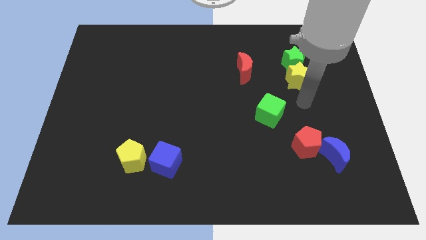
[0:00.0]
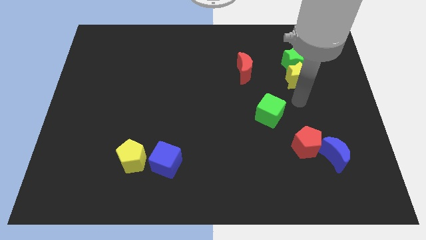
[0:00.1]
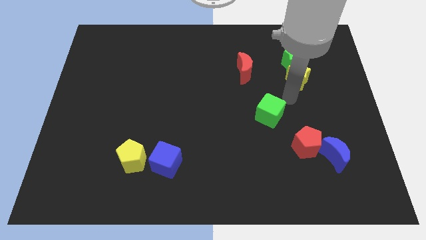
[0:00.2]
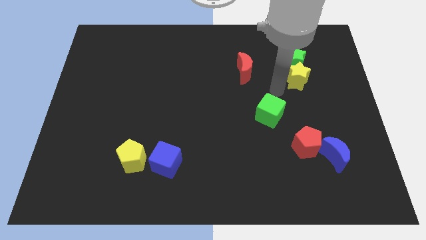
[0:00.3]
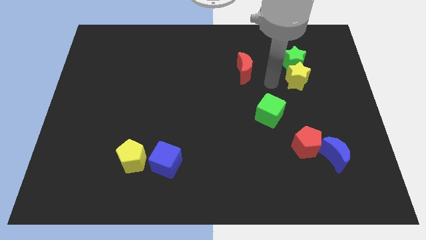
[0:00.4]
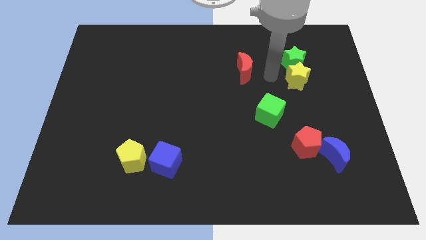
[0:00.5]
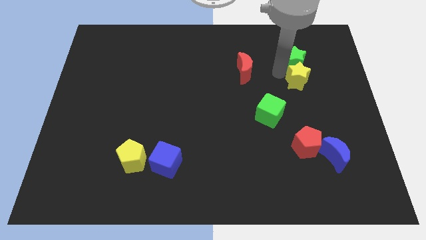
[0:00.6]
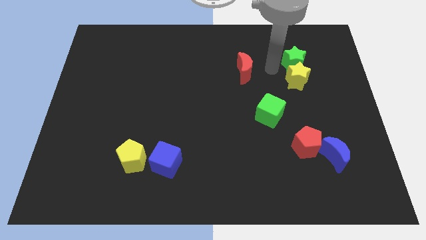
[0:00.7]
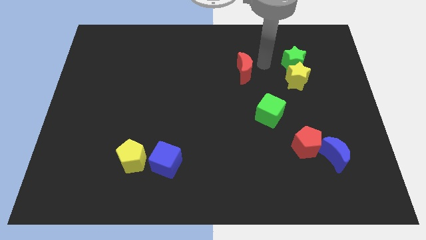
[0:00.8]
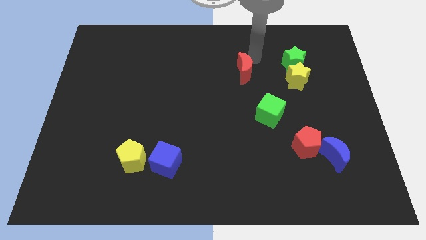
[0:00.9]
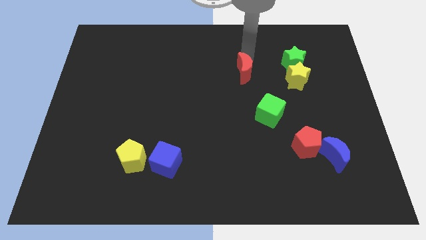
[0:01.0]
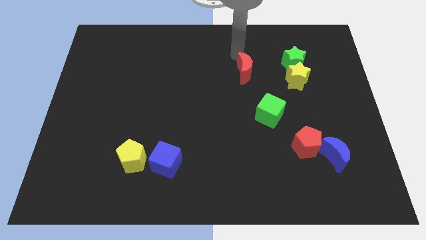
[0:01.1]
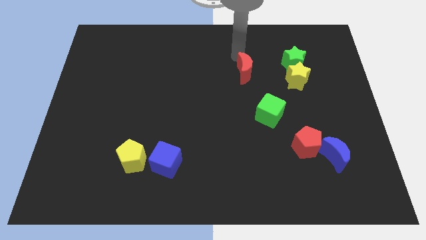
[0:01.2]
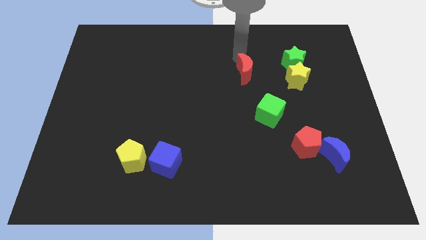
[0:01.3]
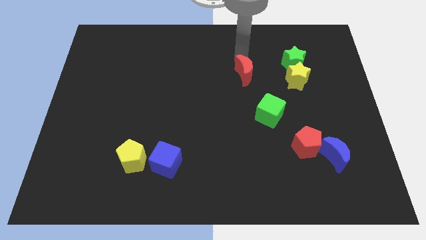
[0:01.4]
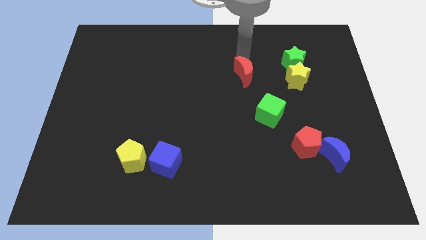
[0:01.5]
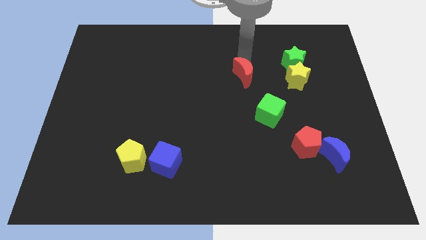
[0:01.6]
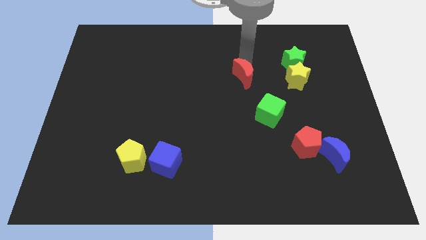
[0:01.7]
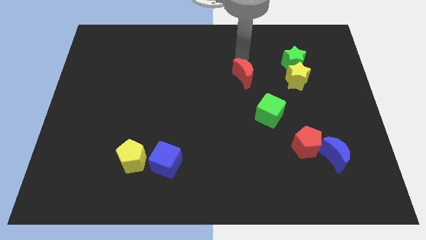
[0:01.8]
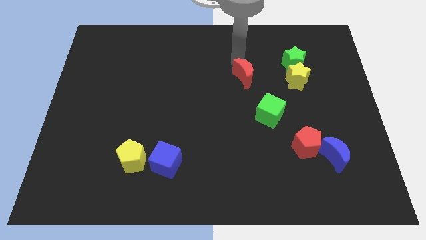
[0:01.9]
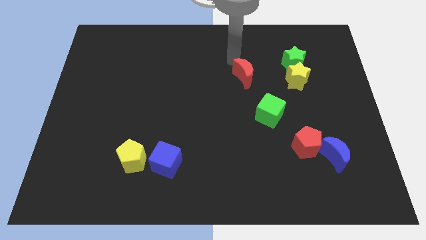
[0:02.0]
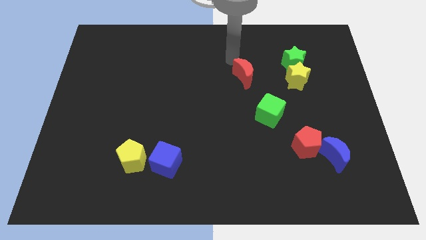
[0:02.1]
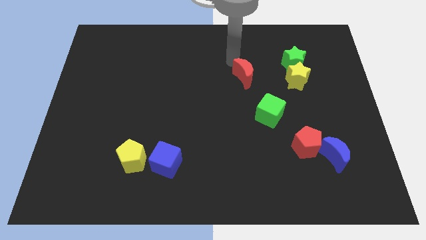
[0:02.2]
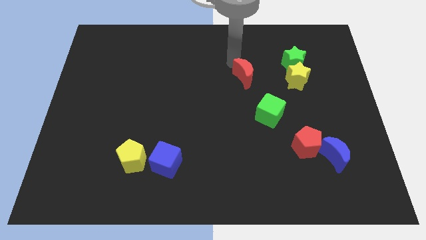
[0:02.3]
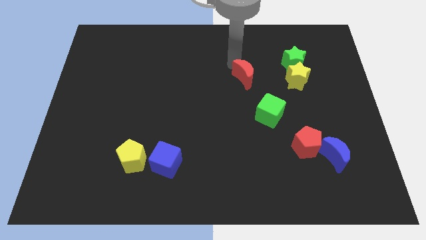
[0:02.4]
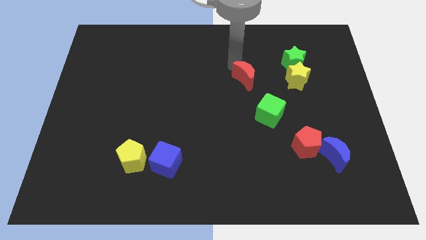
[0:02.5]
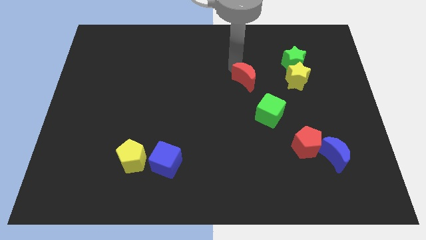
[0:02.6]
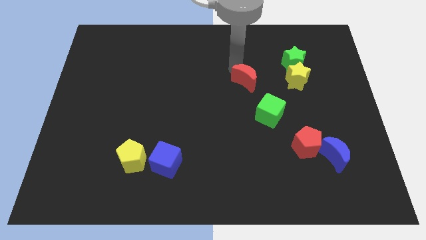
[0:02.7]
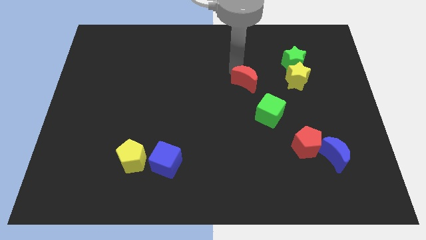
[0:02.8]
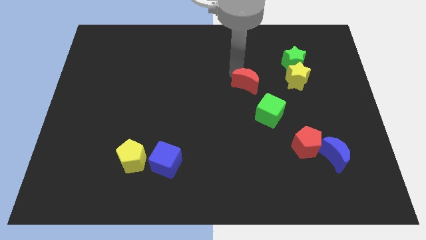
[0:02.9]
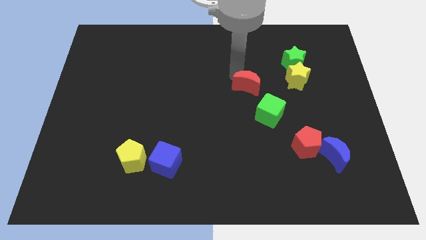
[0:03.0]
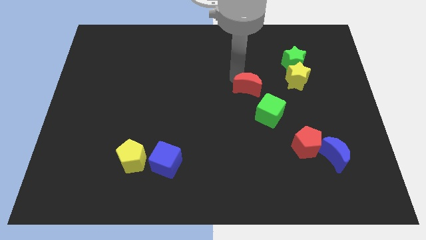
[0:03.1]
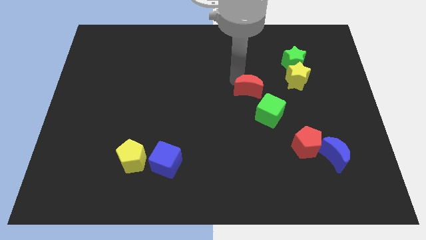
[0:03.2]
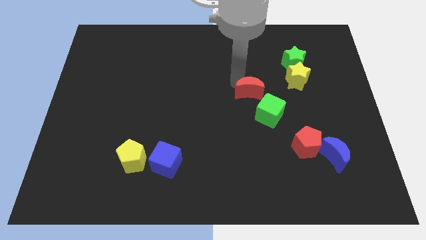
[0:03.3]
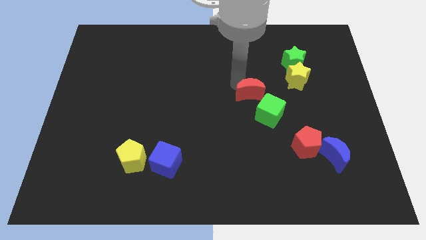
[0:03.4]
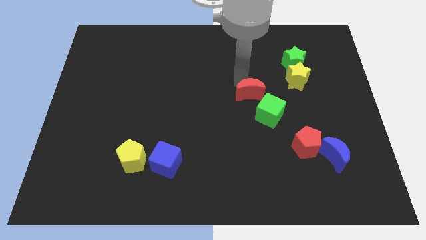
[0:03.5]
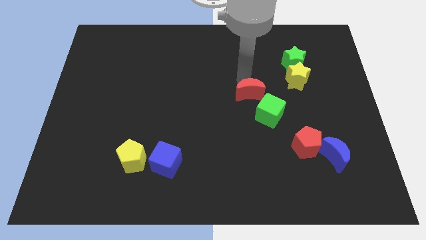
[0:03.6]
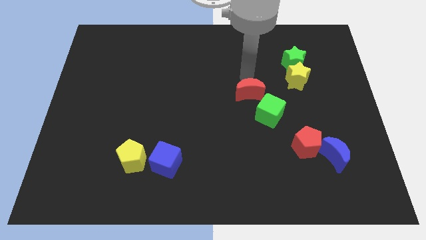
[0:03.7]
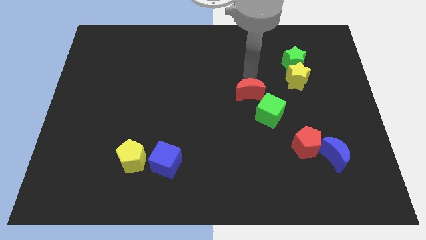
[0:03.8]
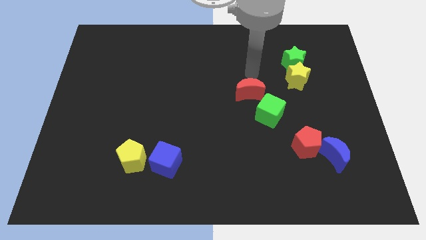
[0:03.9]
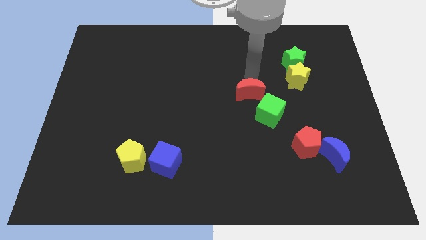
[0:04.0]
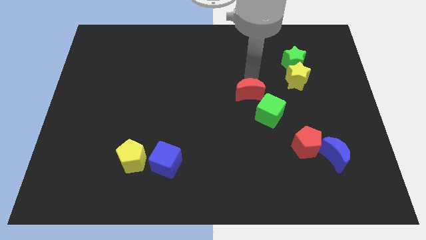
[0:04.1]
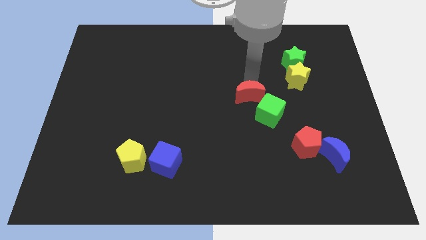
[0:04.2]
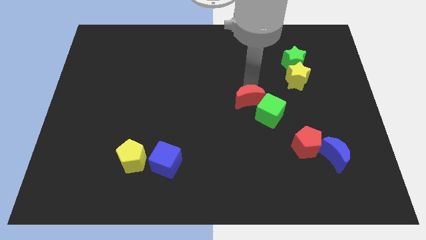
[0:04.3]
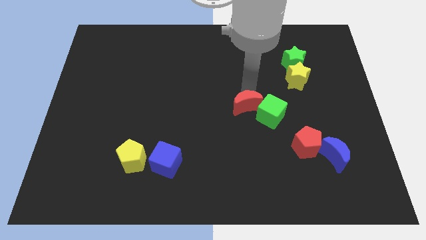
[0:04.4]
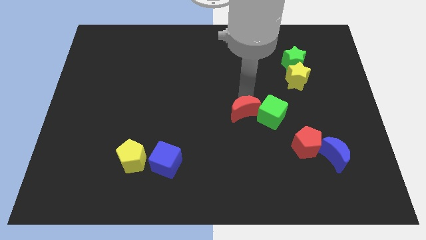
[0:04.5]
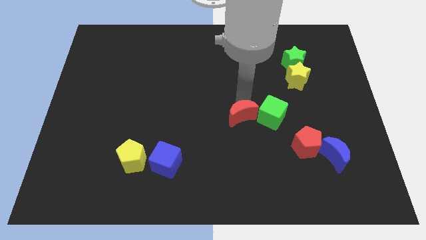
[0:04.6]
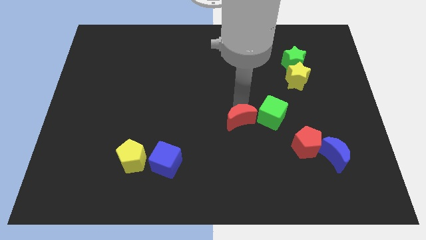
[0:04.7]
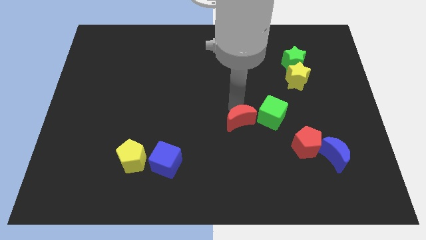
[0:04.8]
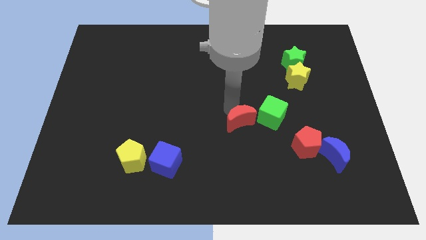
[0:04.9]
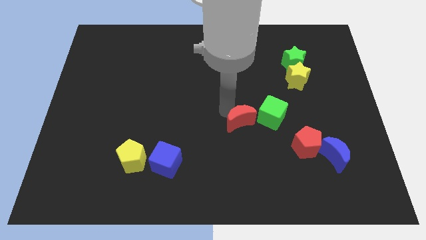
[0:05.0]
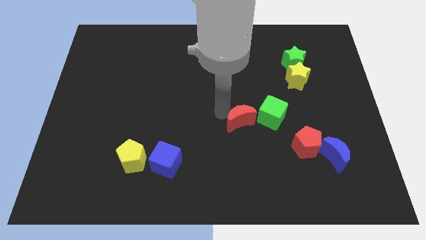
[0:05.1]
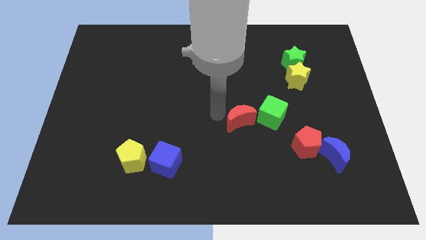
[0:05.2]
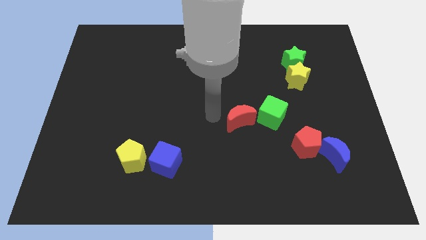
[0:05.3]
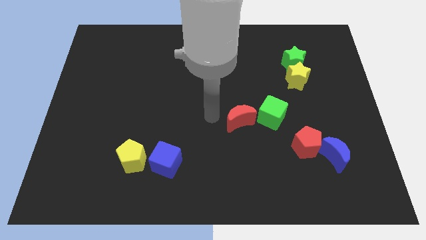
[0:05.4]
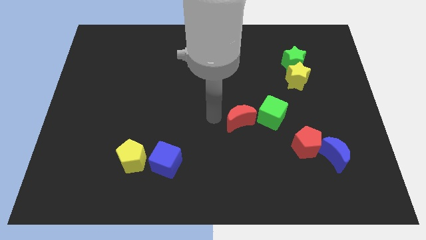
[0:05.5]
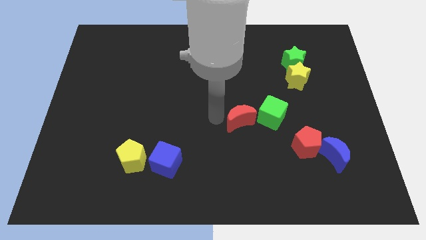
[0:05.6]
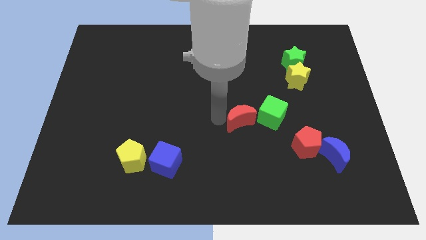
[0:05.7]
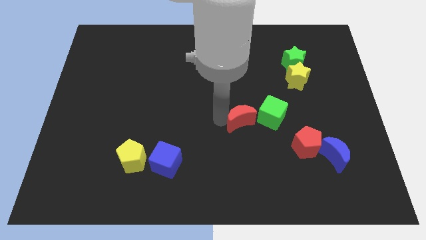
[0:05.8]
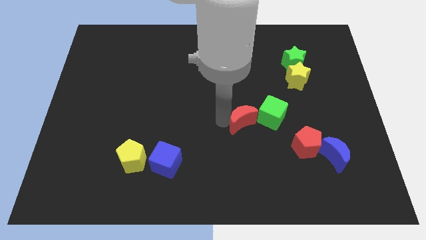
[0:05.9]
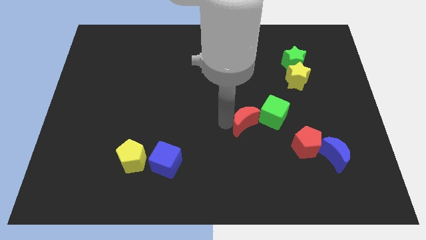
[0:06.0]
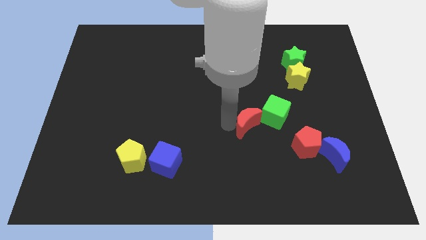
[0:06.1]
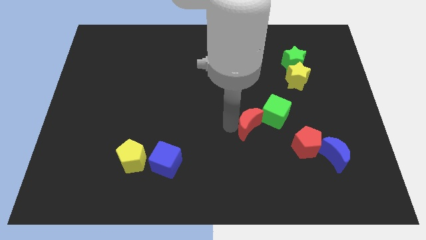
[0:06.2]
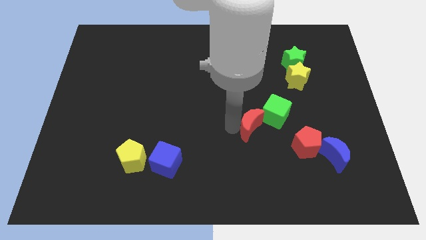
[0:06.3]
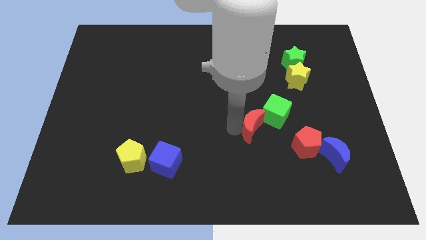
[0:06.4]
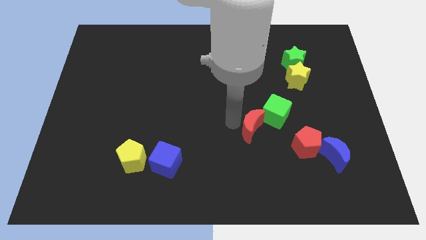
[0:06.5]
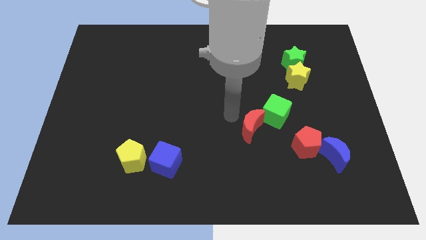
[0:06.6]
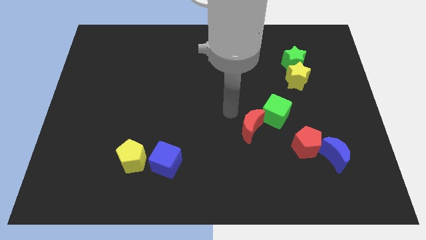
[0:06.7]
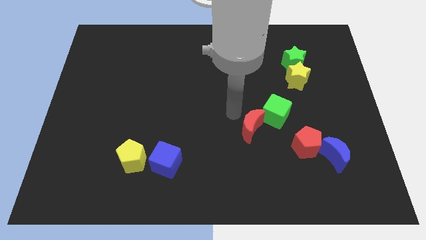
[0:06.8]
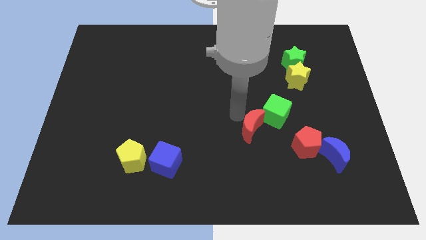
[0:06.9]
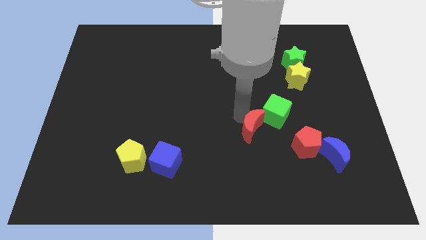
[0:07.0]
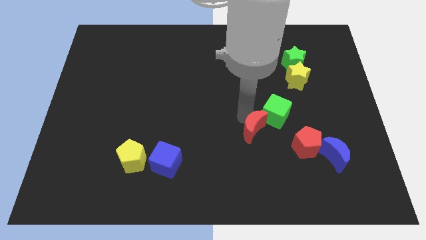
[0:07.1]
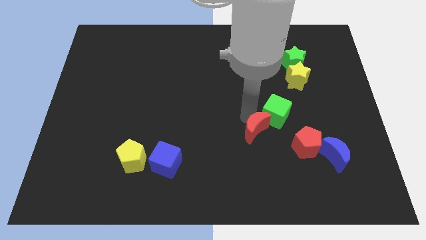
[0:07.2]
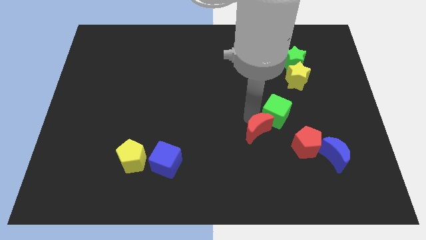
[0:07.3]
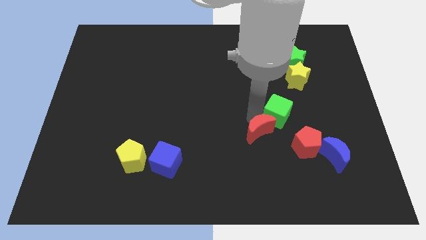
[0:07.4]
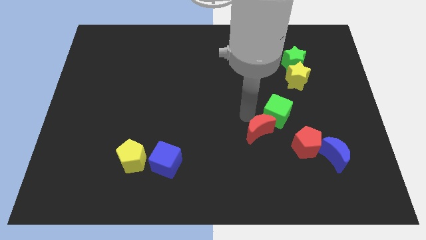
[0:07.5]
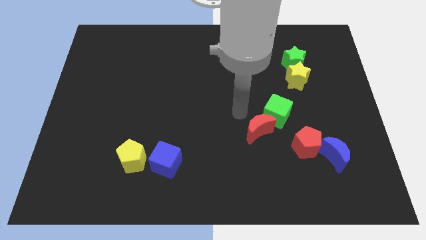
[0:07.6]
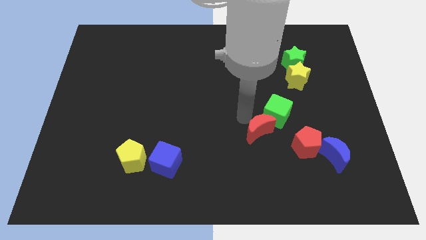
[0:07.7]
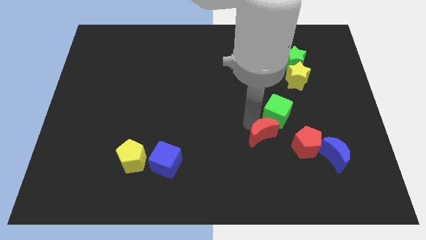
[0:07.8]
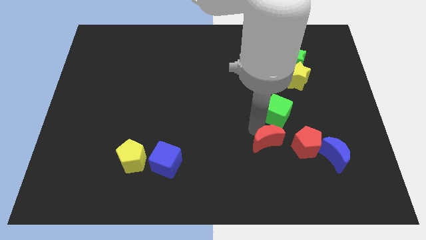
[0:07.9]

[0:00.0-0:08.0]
put the red moon to the left side of the blue moon

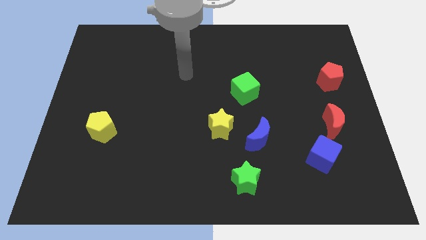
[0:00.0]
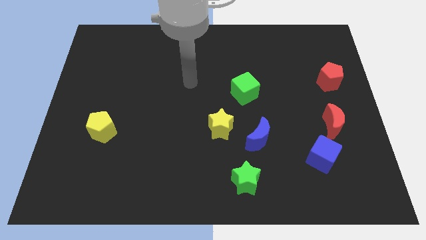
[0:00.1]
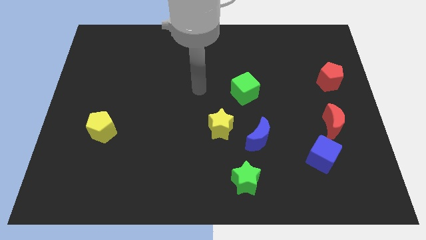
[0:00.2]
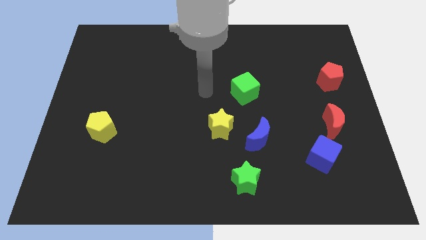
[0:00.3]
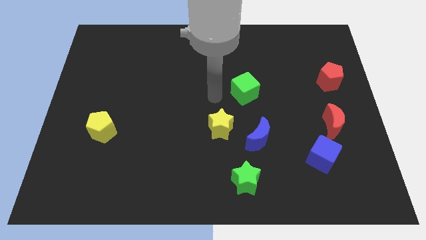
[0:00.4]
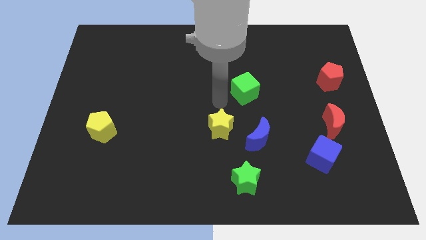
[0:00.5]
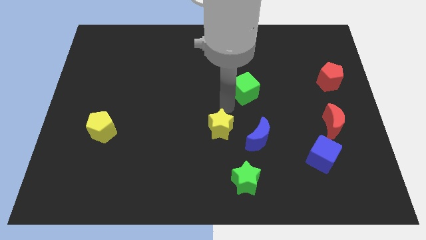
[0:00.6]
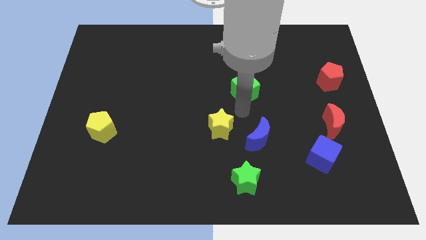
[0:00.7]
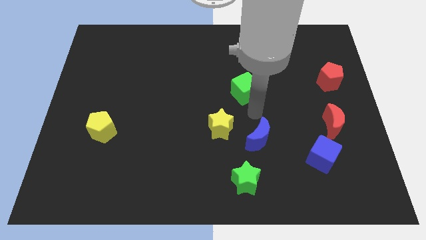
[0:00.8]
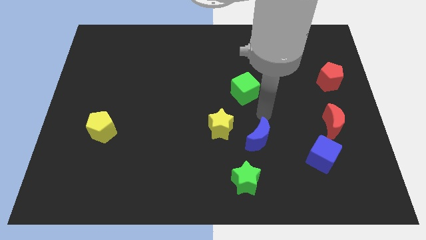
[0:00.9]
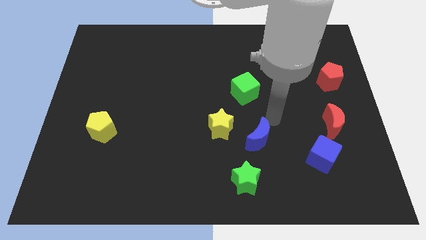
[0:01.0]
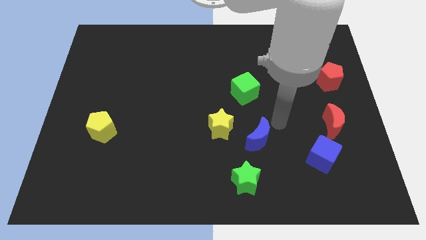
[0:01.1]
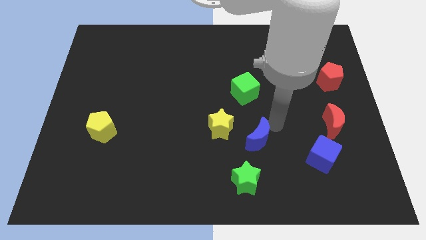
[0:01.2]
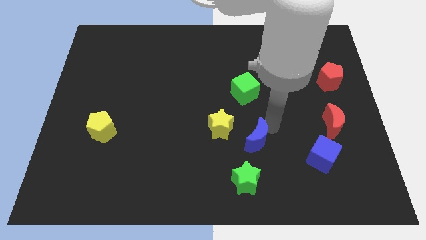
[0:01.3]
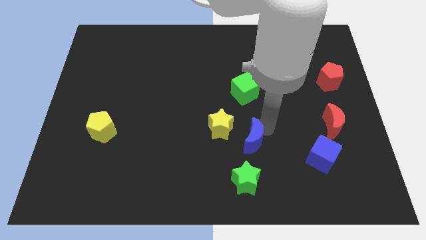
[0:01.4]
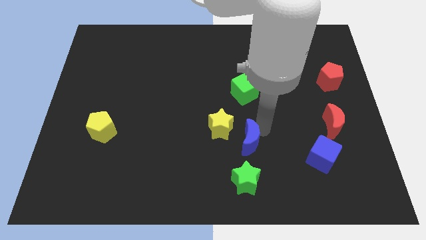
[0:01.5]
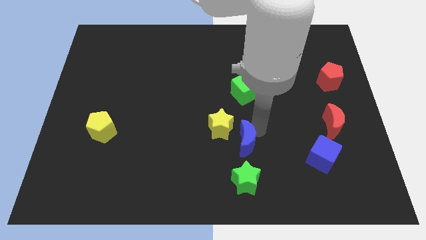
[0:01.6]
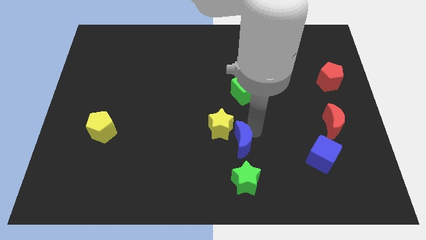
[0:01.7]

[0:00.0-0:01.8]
move the blue moon to the bottom of the yellow star
